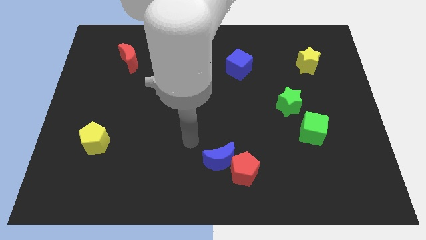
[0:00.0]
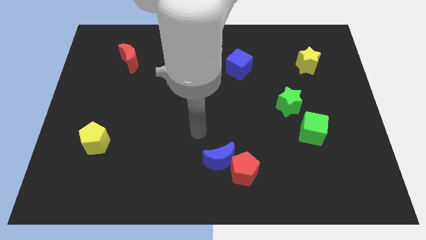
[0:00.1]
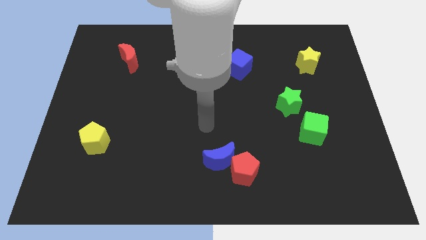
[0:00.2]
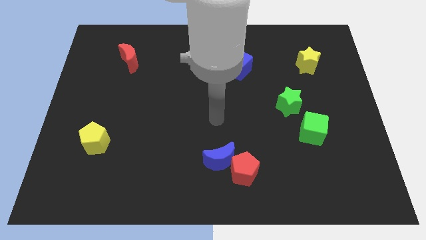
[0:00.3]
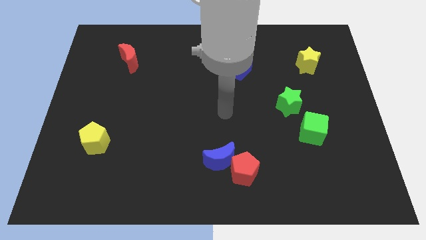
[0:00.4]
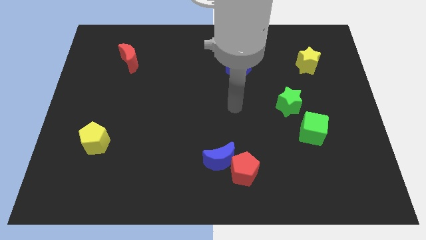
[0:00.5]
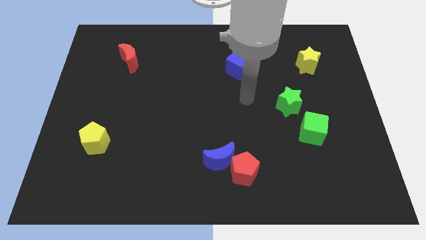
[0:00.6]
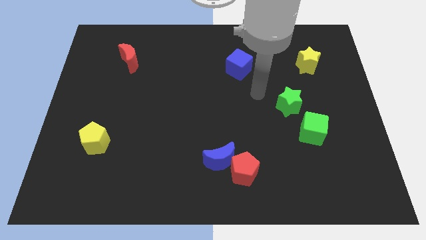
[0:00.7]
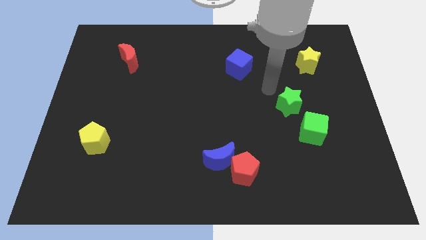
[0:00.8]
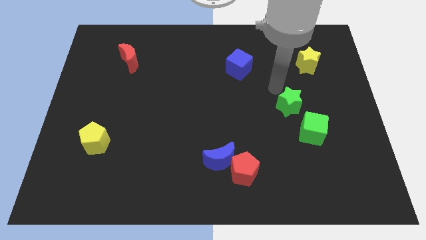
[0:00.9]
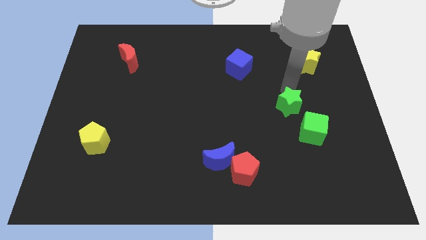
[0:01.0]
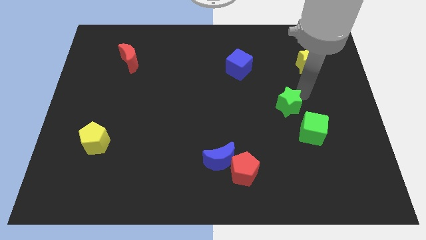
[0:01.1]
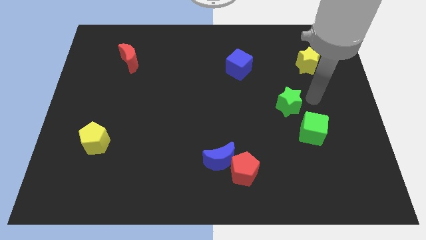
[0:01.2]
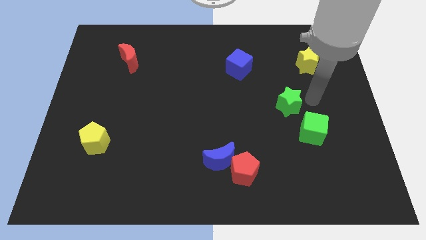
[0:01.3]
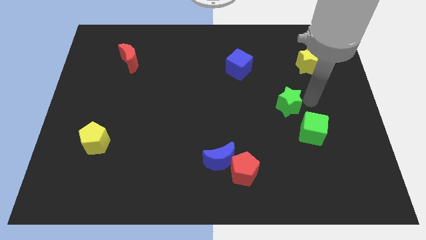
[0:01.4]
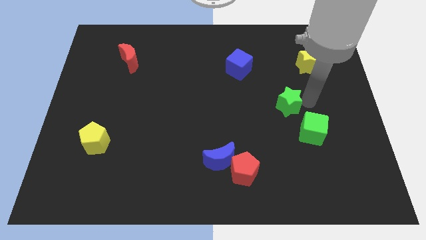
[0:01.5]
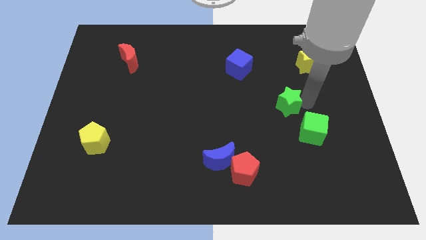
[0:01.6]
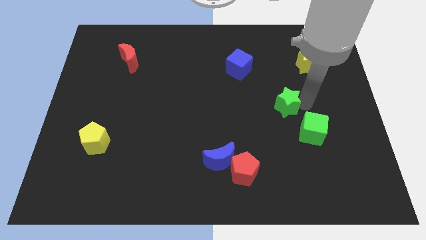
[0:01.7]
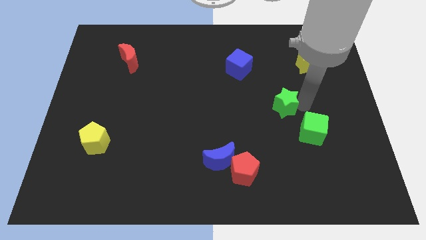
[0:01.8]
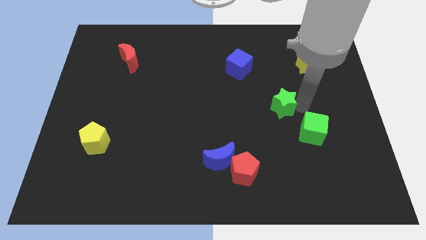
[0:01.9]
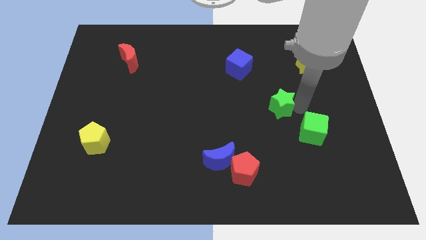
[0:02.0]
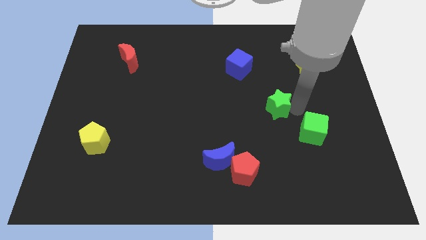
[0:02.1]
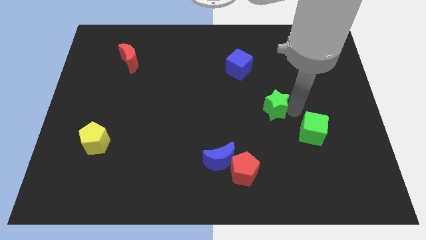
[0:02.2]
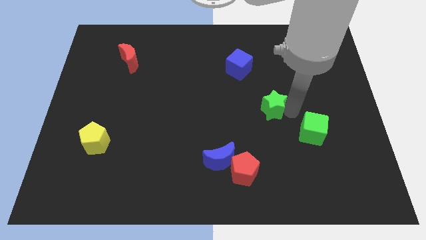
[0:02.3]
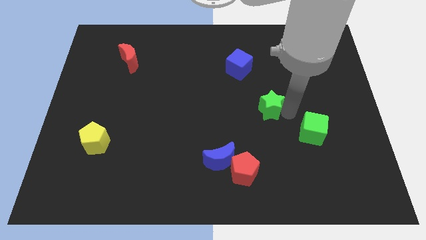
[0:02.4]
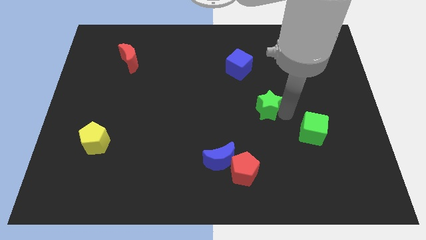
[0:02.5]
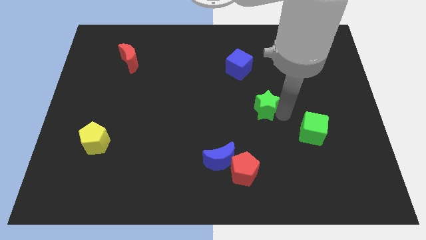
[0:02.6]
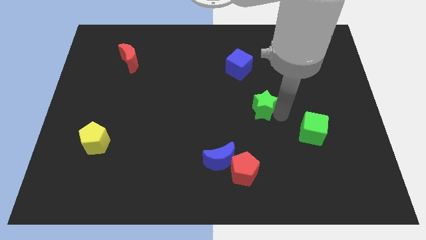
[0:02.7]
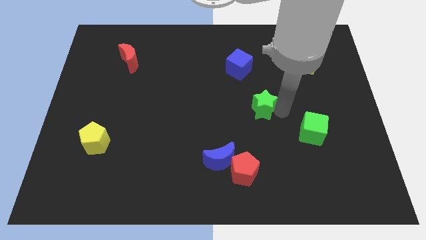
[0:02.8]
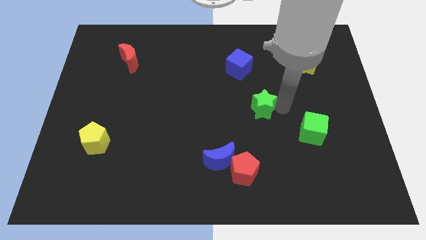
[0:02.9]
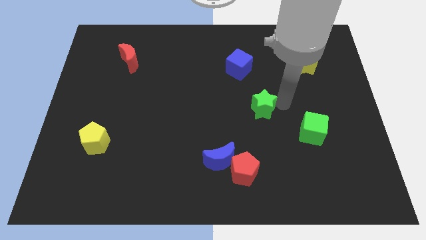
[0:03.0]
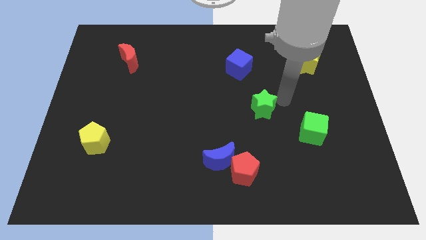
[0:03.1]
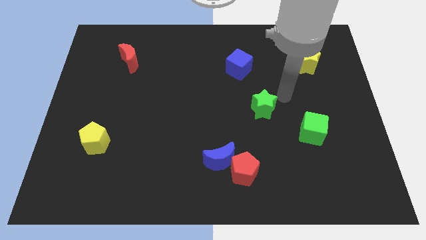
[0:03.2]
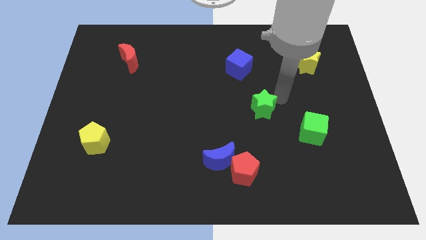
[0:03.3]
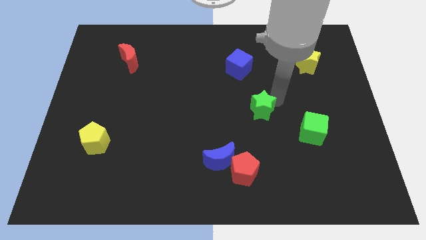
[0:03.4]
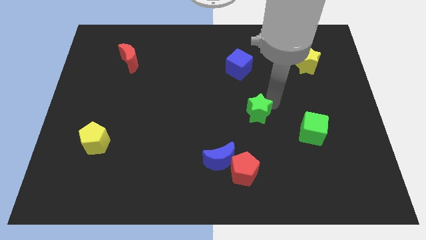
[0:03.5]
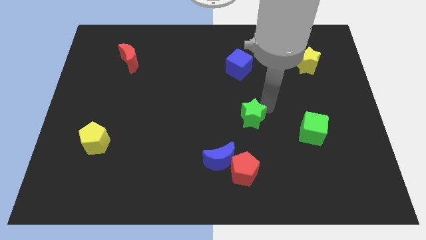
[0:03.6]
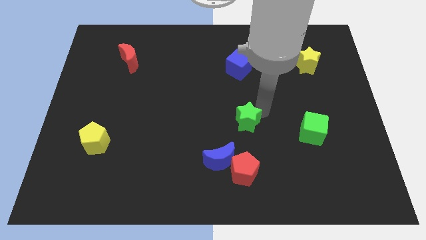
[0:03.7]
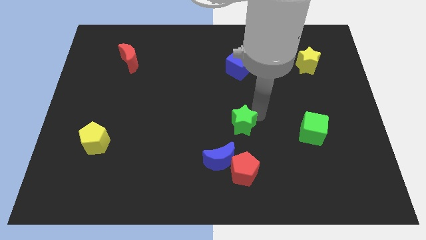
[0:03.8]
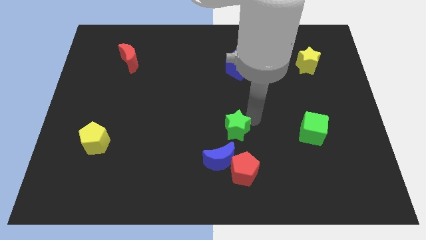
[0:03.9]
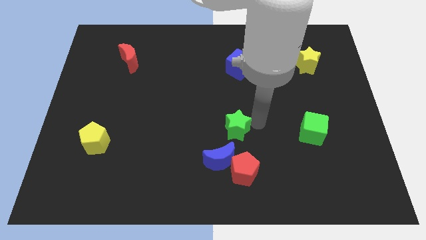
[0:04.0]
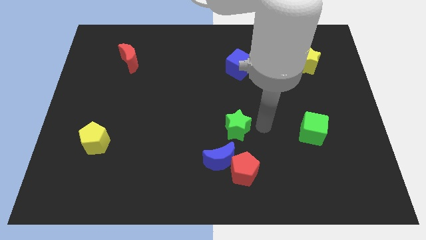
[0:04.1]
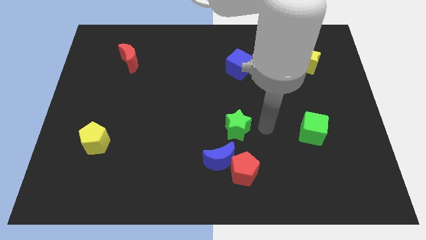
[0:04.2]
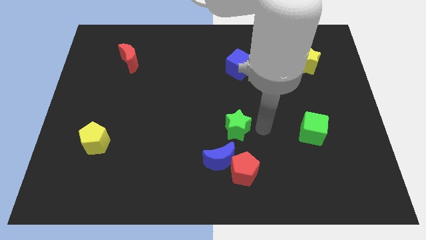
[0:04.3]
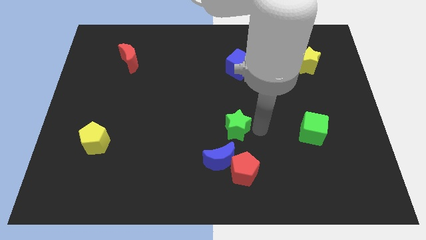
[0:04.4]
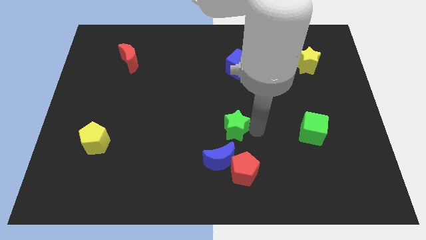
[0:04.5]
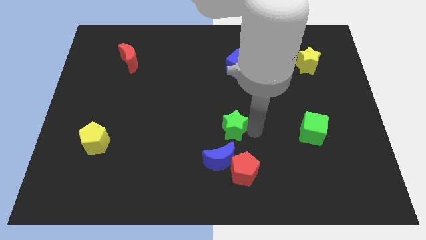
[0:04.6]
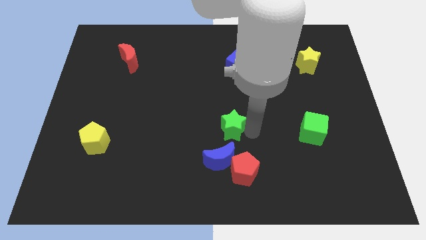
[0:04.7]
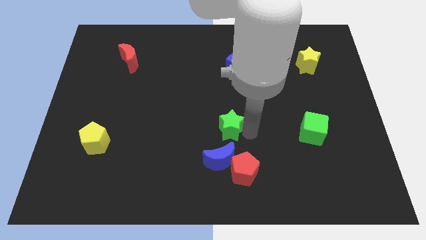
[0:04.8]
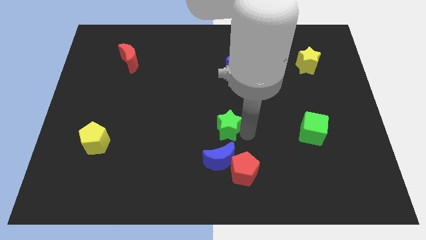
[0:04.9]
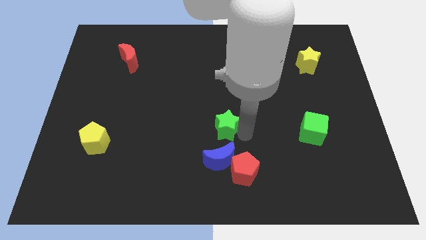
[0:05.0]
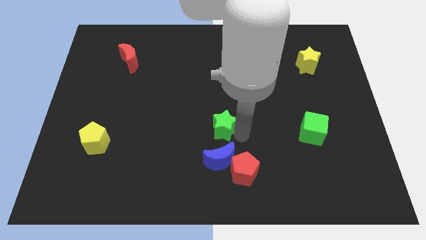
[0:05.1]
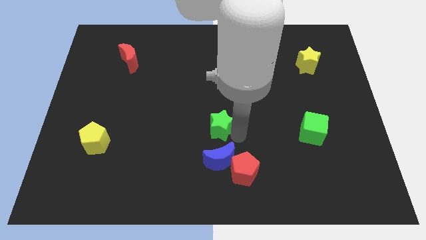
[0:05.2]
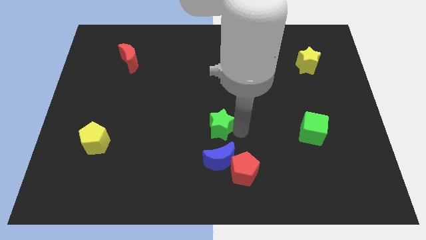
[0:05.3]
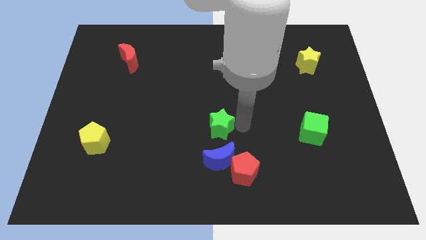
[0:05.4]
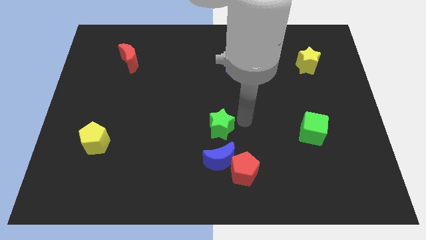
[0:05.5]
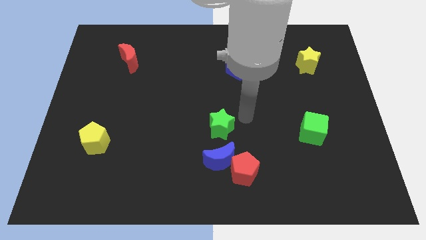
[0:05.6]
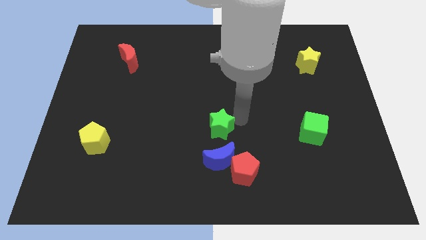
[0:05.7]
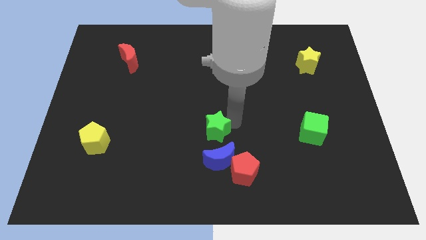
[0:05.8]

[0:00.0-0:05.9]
put the green star to the top left side of the blue moon

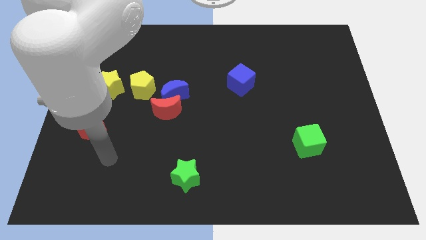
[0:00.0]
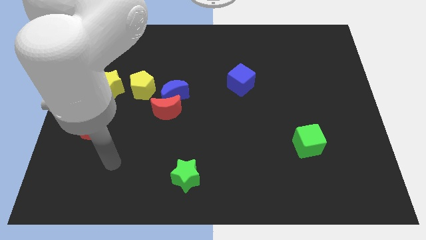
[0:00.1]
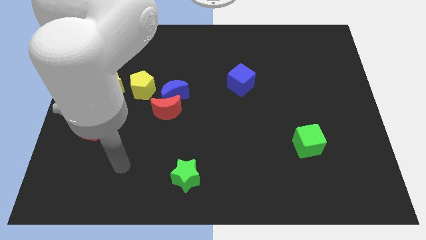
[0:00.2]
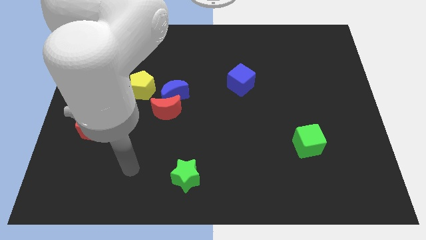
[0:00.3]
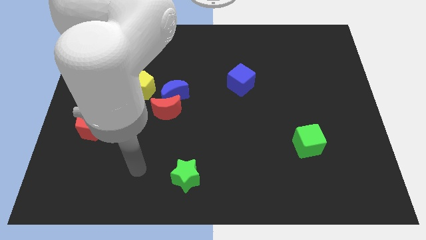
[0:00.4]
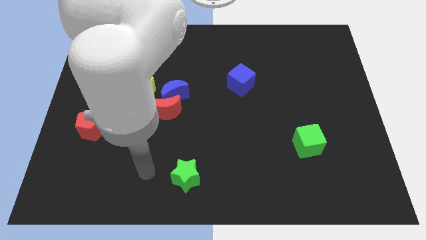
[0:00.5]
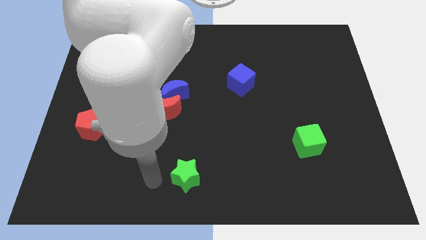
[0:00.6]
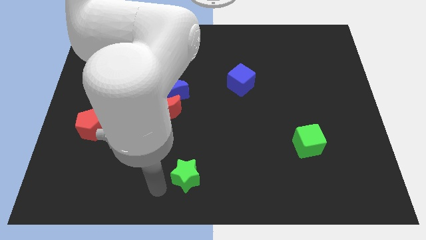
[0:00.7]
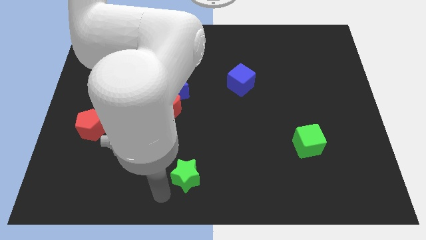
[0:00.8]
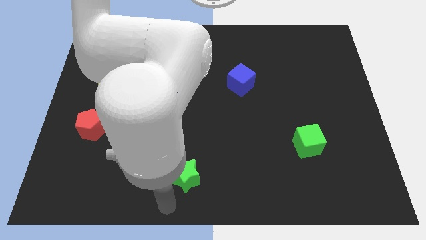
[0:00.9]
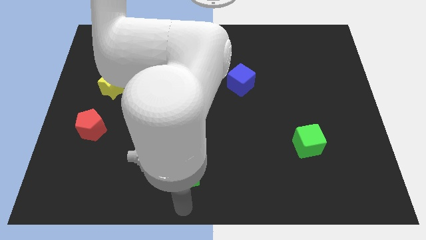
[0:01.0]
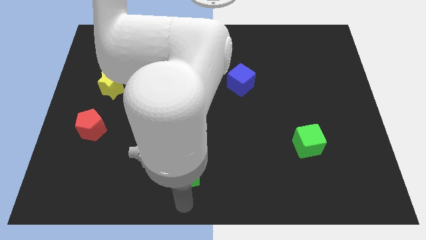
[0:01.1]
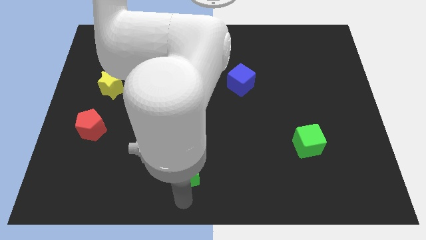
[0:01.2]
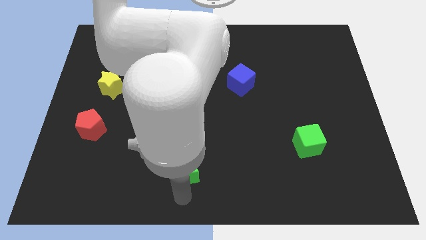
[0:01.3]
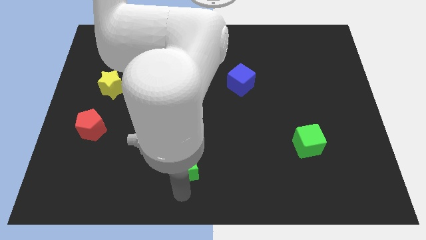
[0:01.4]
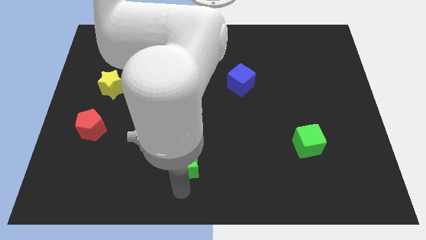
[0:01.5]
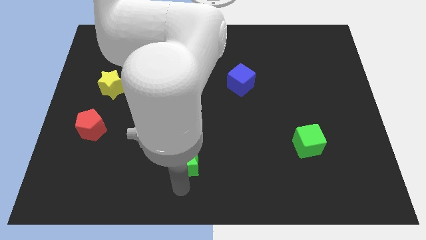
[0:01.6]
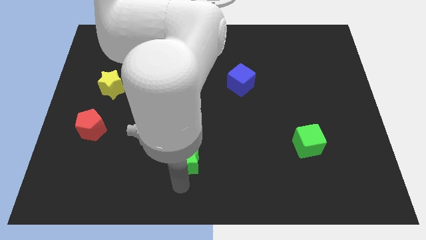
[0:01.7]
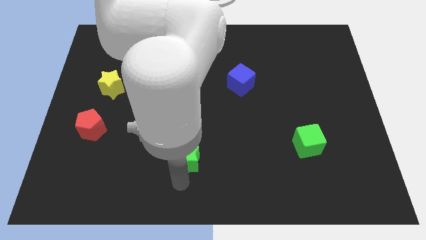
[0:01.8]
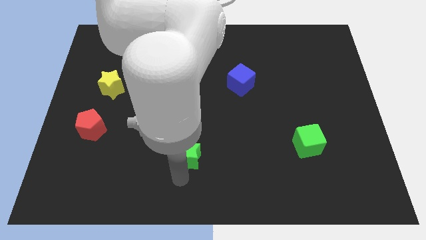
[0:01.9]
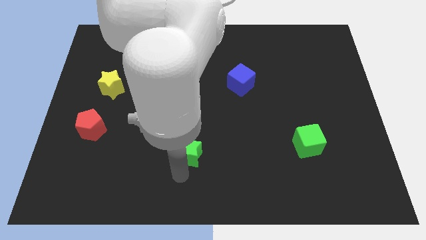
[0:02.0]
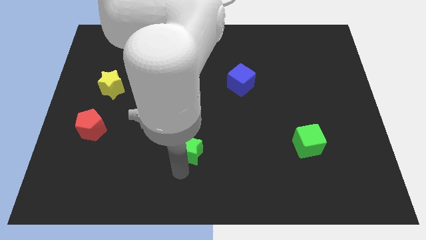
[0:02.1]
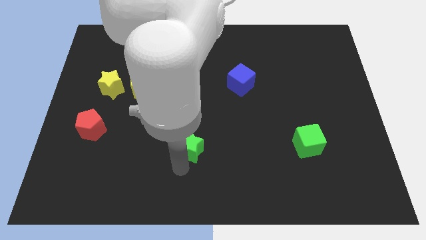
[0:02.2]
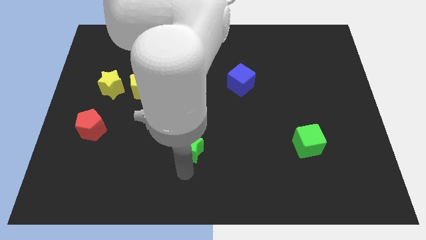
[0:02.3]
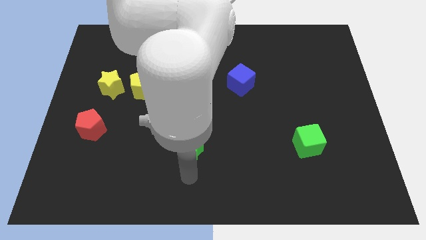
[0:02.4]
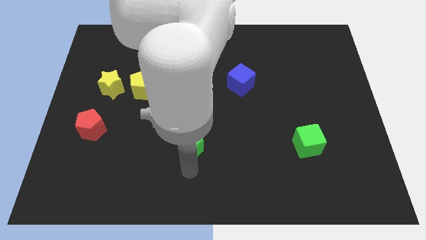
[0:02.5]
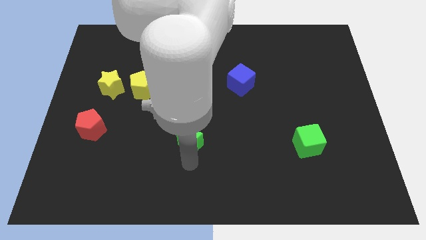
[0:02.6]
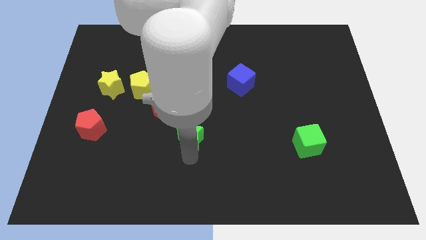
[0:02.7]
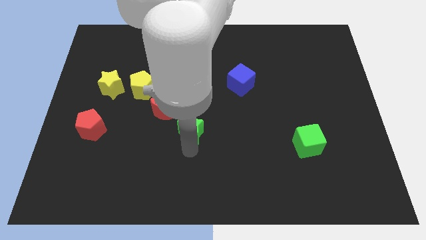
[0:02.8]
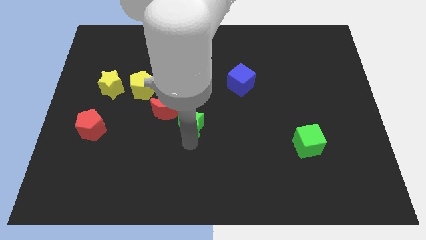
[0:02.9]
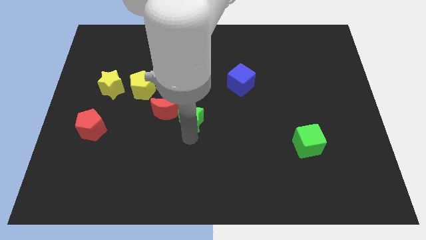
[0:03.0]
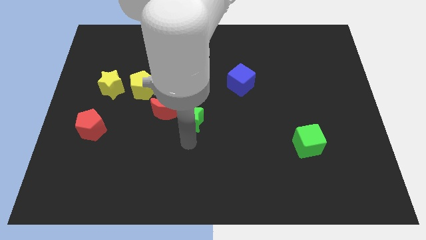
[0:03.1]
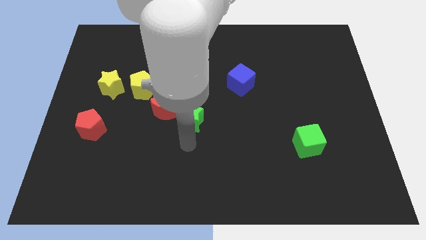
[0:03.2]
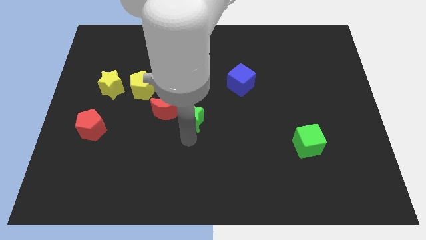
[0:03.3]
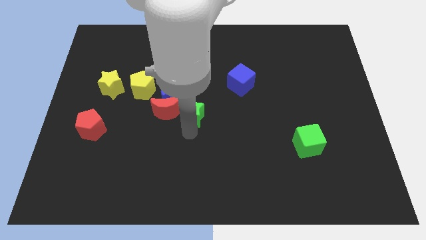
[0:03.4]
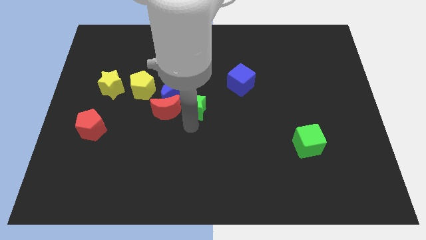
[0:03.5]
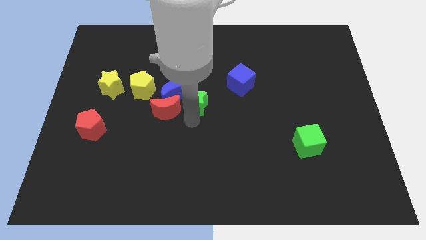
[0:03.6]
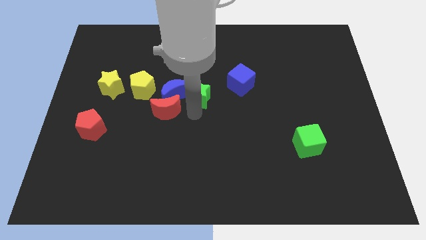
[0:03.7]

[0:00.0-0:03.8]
put the green star to the top right side of the blue moon
